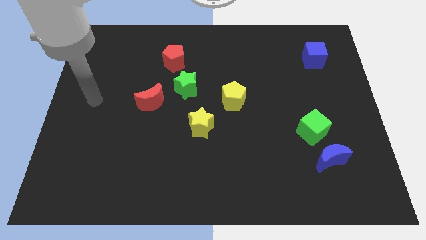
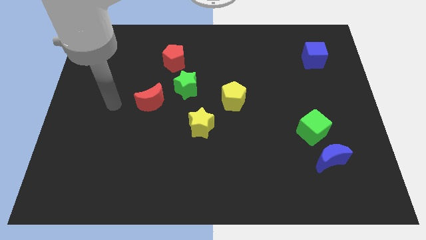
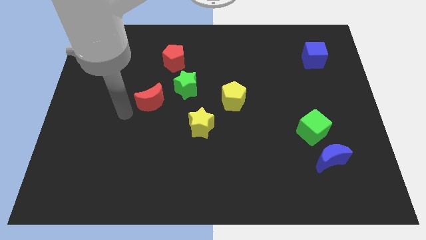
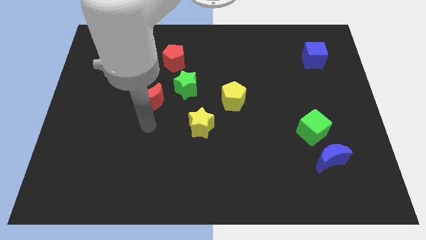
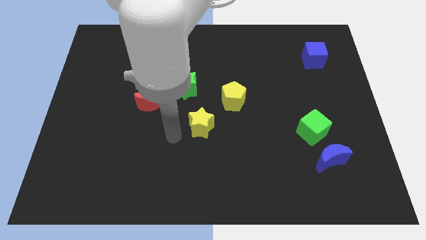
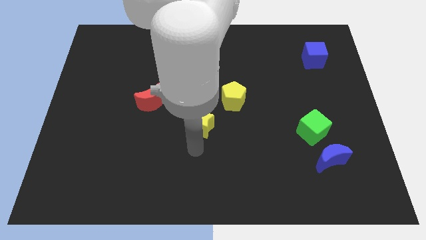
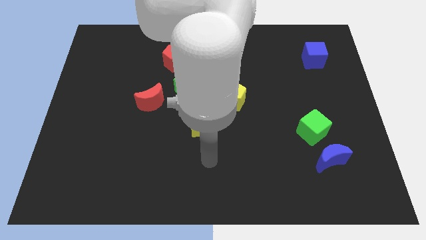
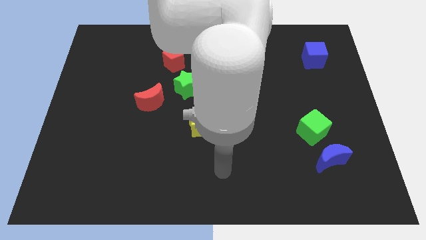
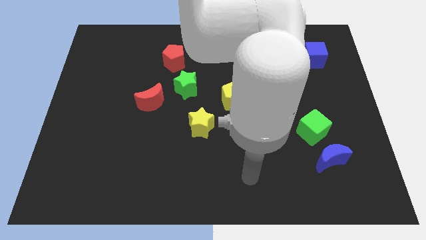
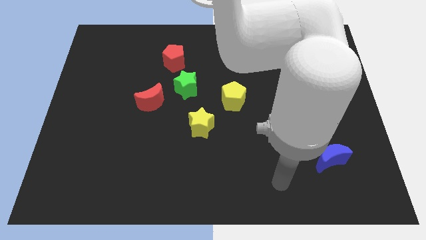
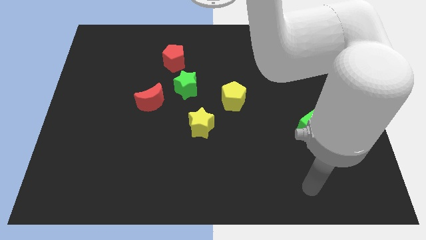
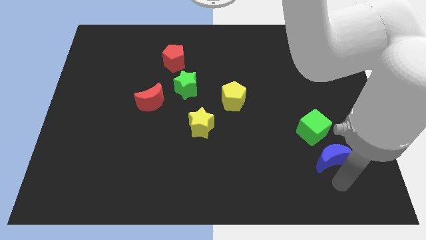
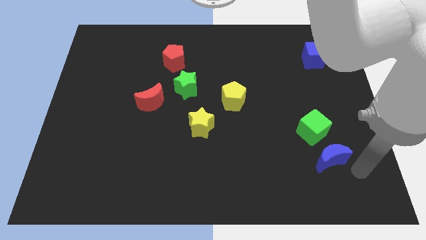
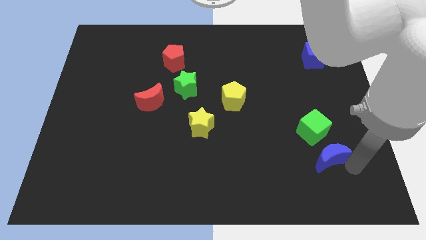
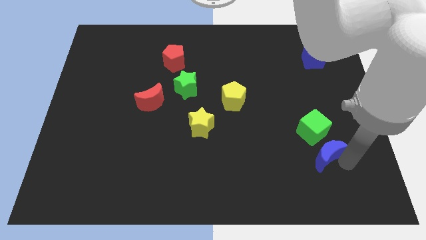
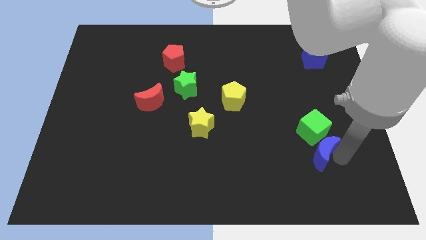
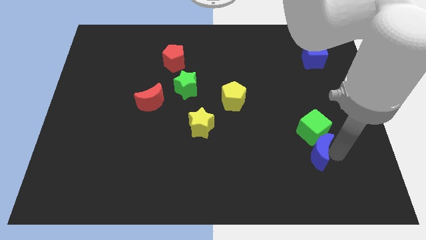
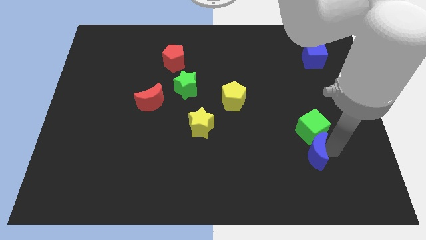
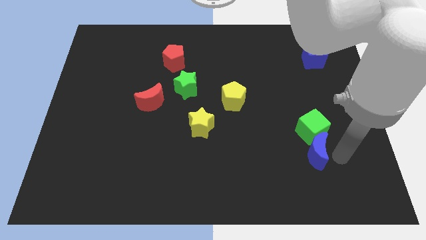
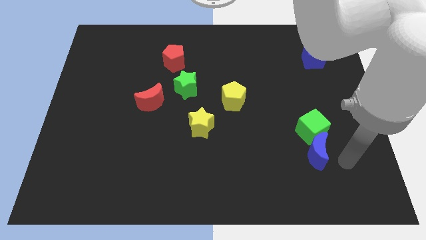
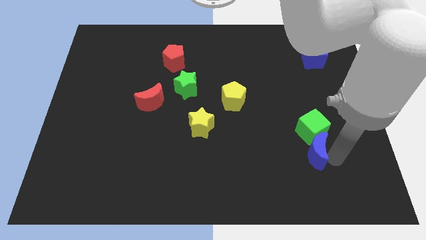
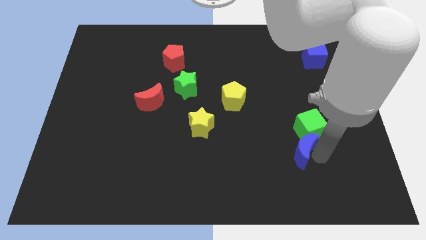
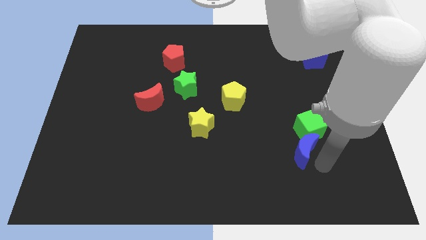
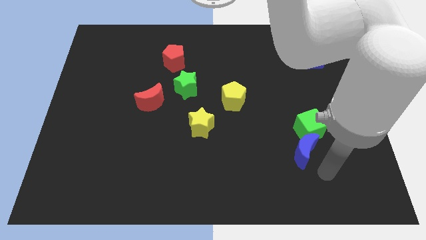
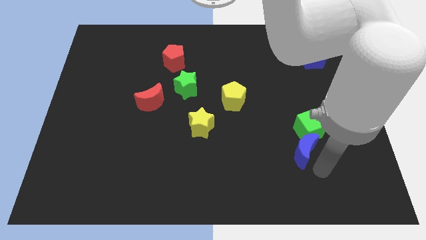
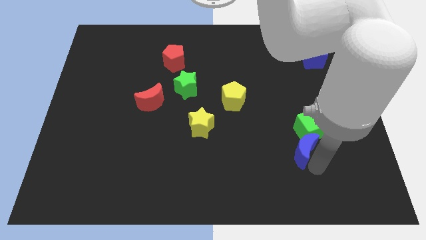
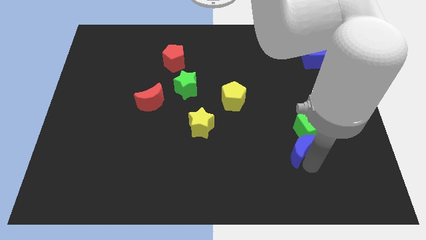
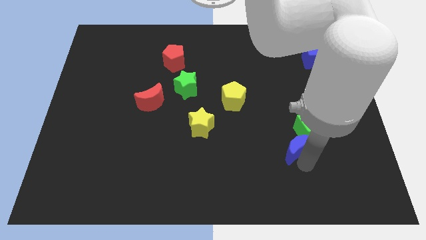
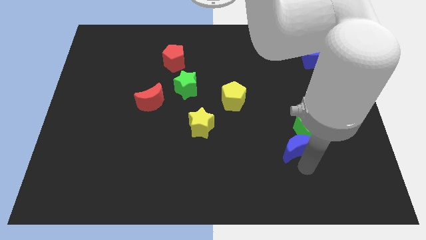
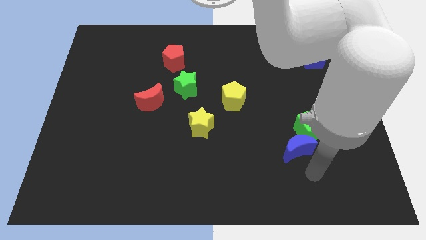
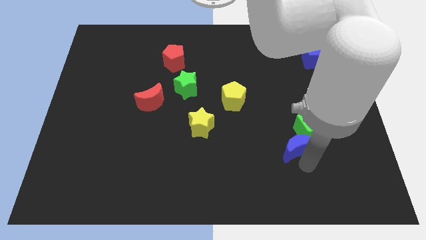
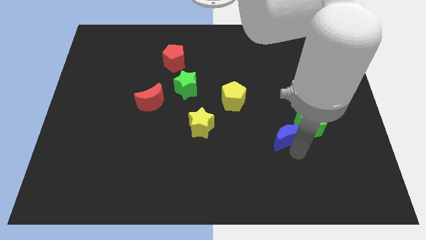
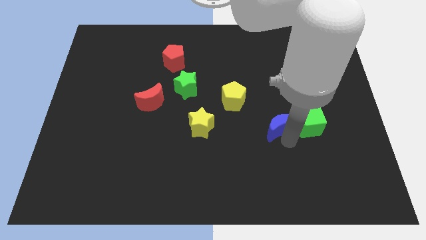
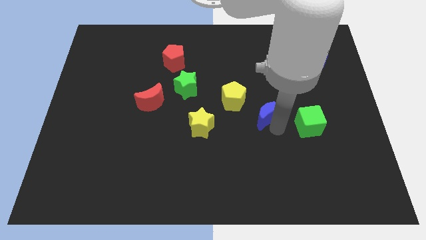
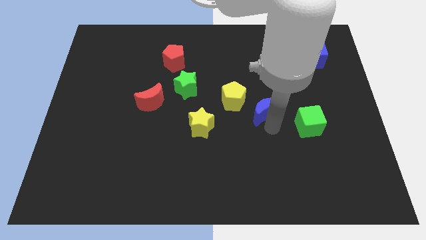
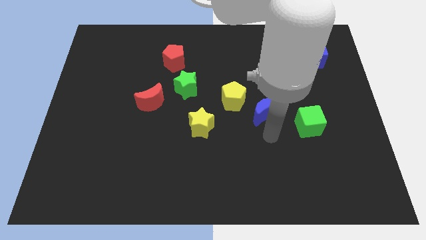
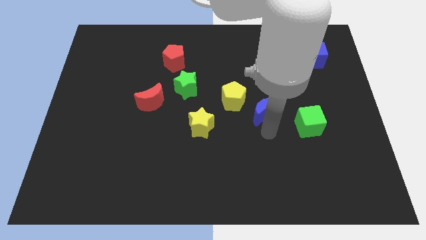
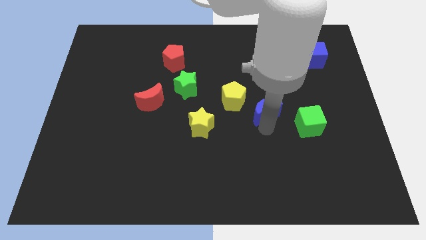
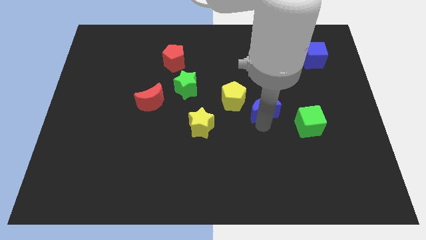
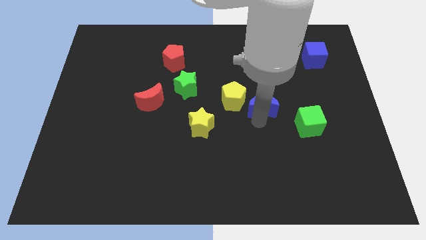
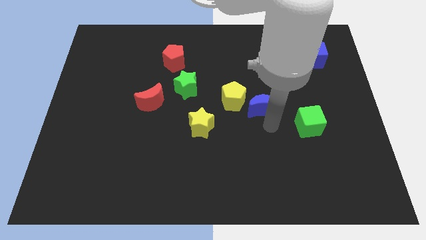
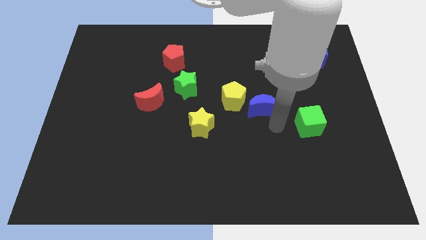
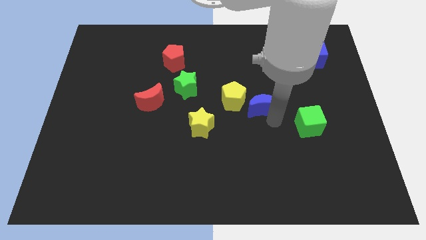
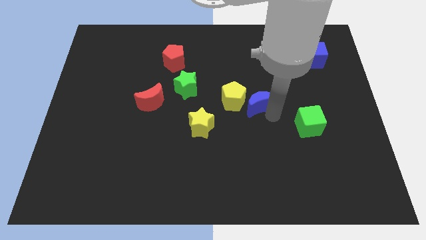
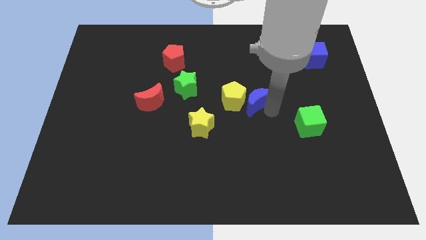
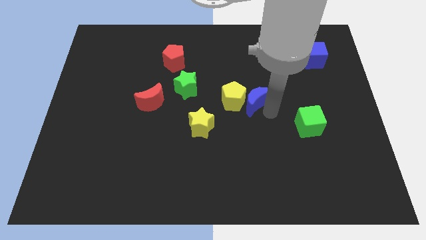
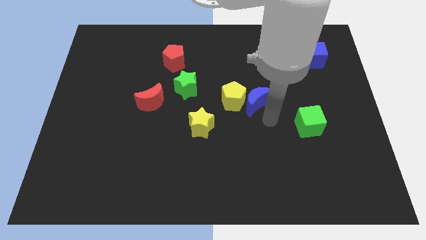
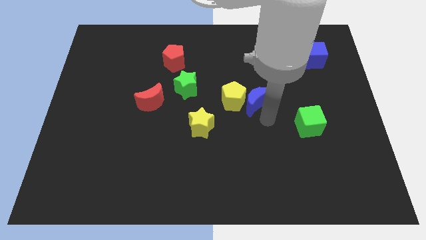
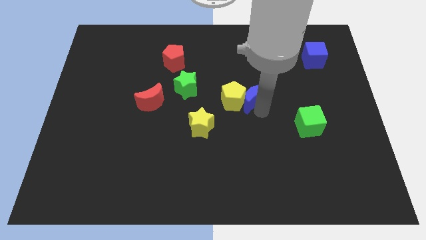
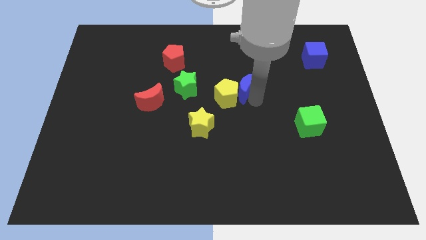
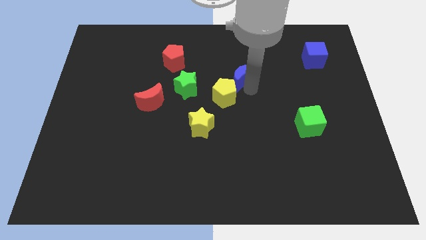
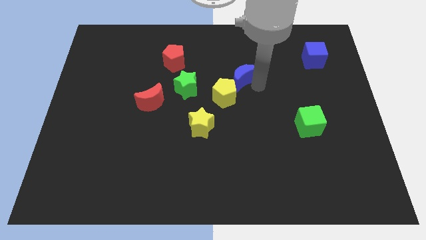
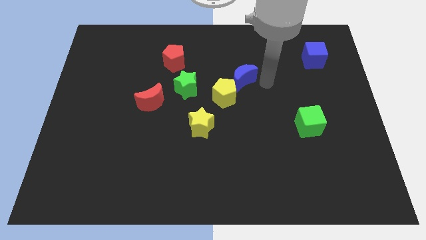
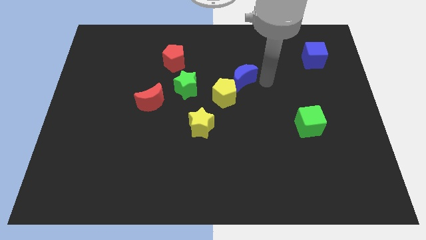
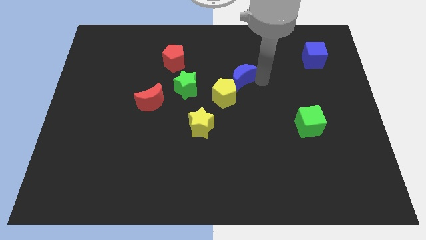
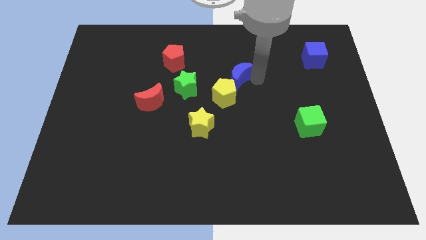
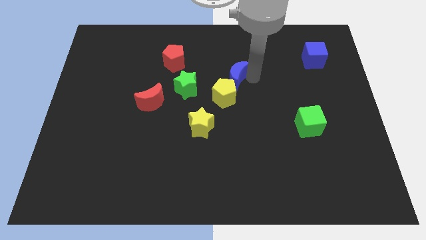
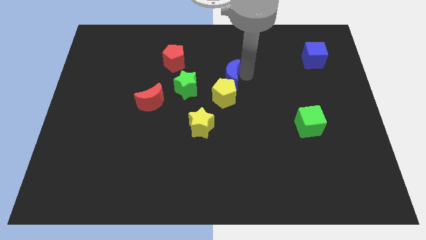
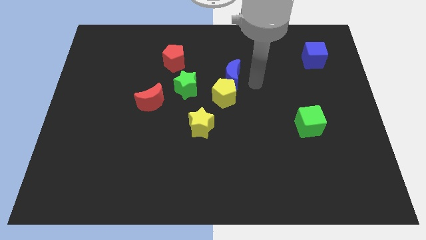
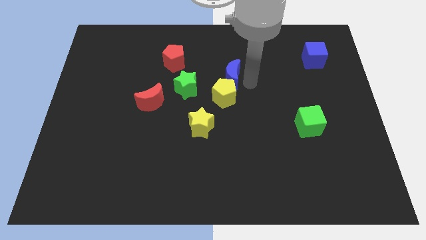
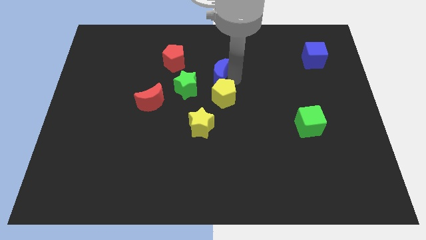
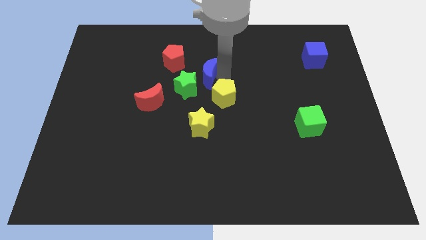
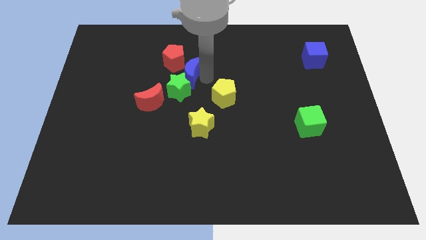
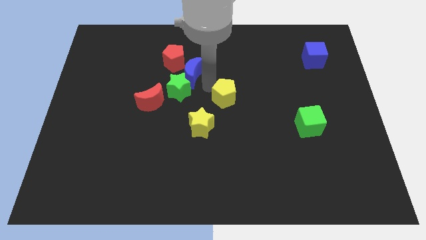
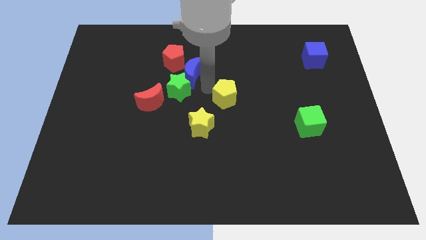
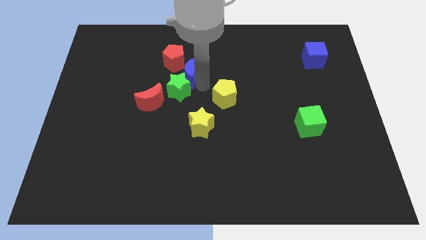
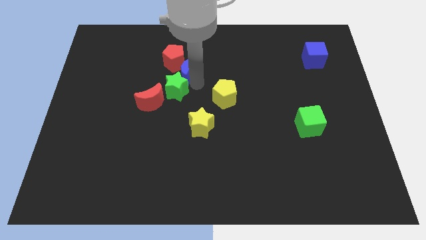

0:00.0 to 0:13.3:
put the blue moon to the red pentagon
